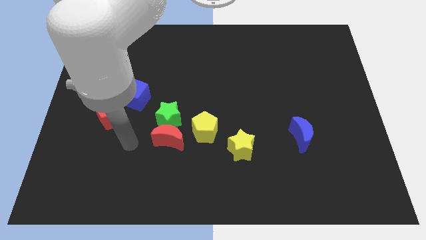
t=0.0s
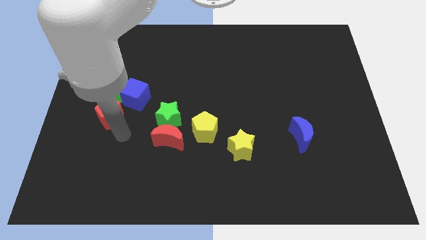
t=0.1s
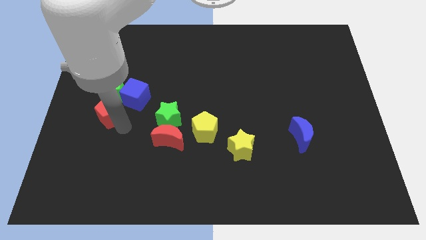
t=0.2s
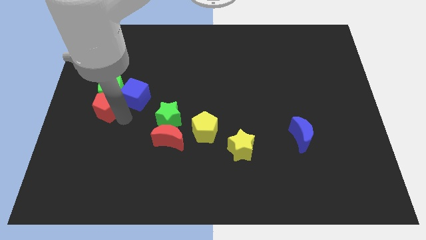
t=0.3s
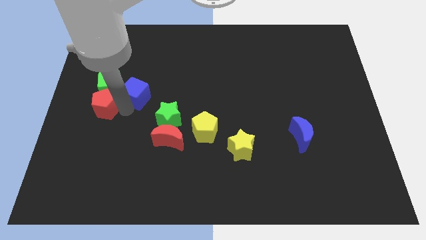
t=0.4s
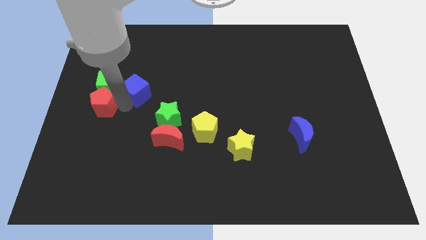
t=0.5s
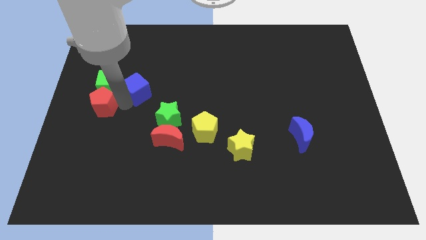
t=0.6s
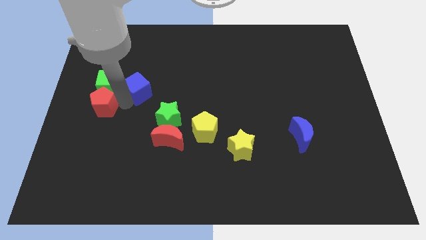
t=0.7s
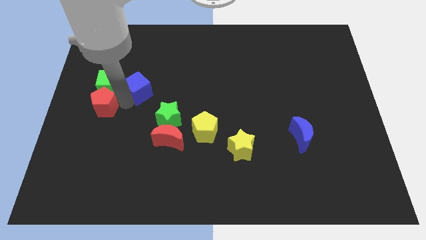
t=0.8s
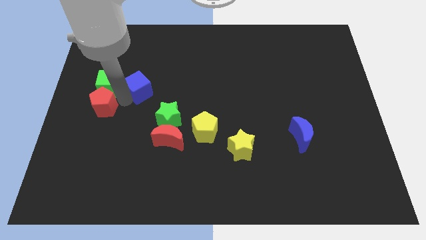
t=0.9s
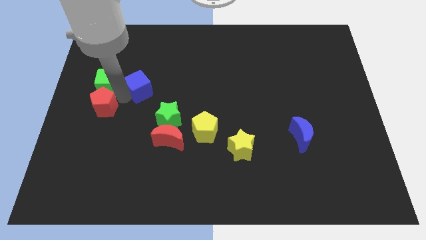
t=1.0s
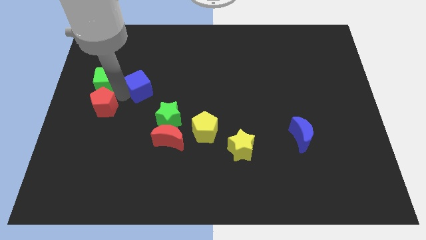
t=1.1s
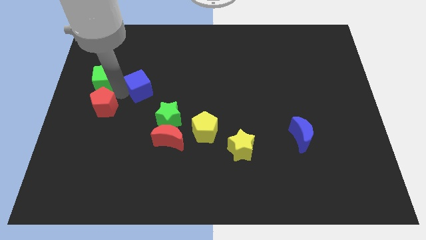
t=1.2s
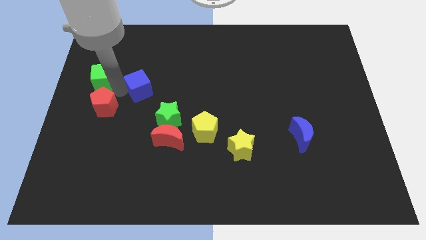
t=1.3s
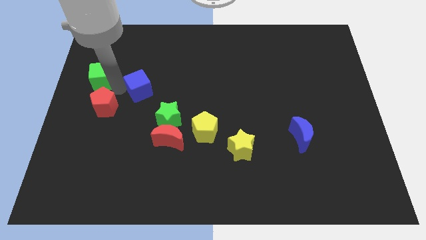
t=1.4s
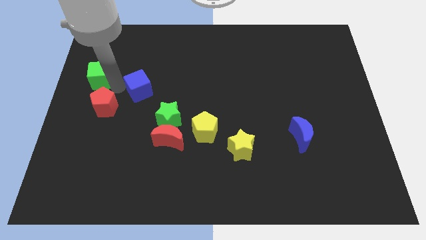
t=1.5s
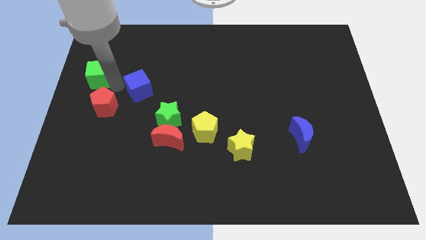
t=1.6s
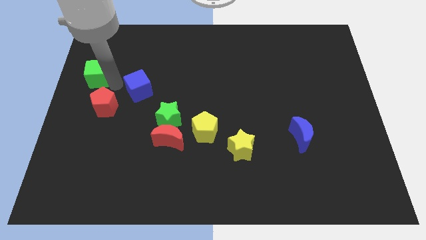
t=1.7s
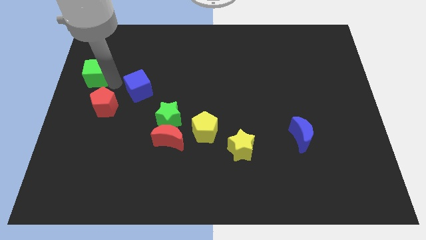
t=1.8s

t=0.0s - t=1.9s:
move the green cube away from the blue cube and red pentagon

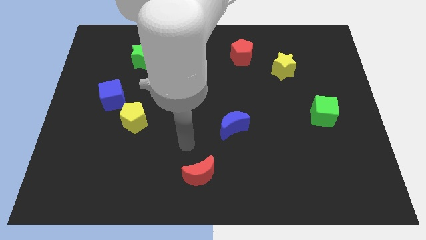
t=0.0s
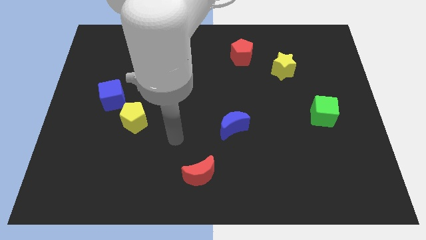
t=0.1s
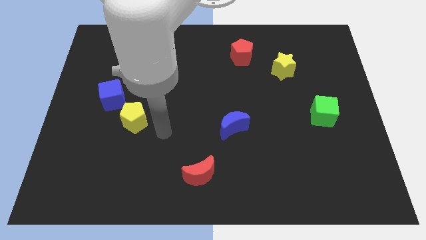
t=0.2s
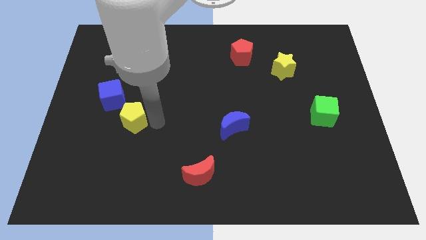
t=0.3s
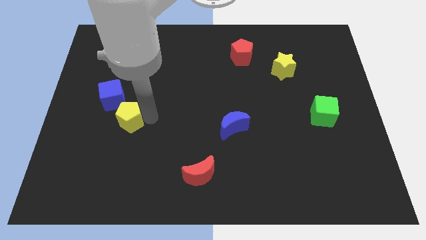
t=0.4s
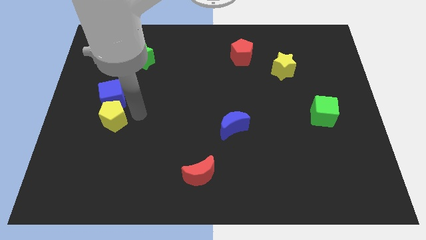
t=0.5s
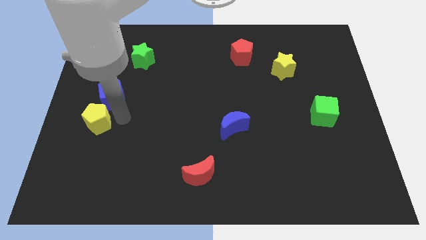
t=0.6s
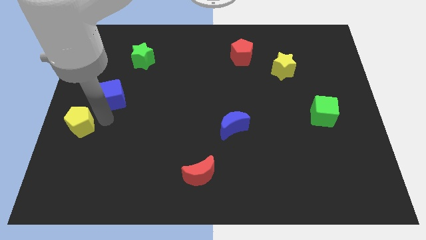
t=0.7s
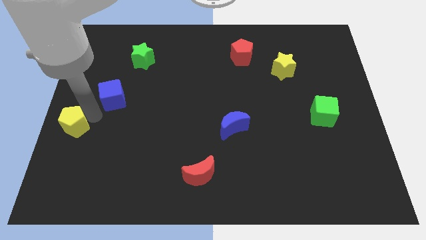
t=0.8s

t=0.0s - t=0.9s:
move the blue cube away from the yellow pentagon

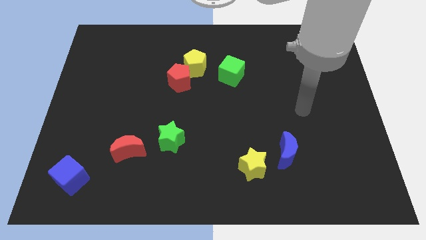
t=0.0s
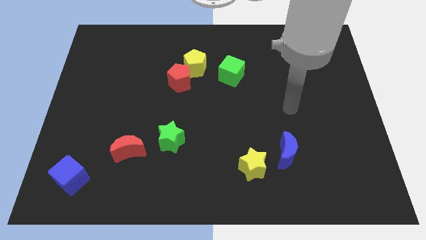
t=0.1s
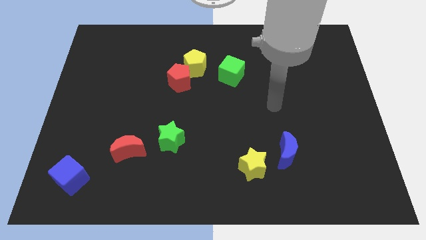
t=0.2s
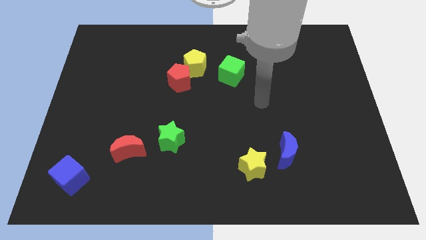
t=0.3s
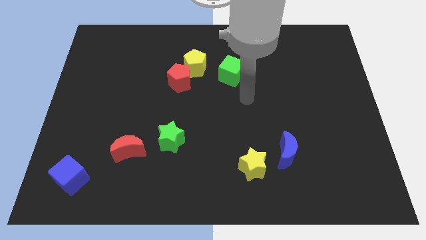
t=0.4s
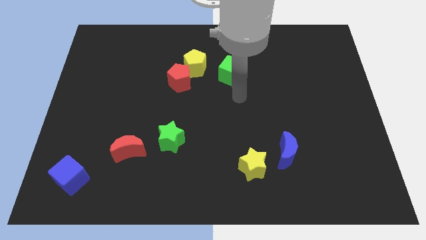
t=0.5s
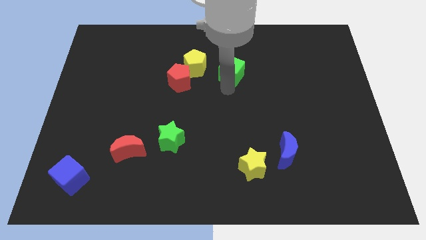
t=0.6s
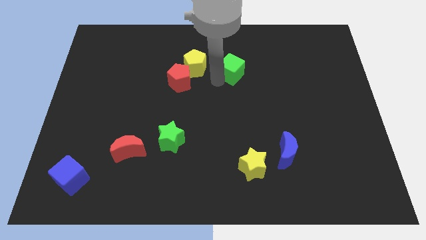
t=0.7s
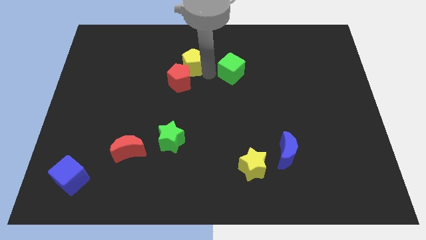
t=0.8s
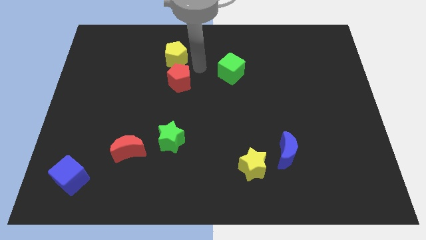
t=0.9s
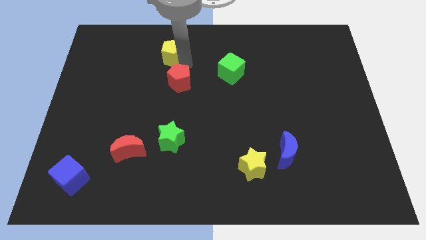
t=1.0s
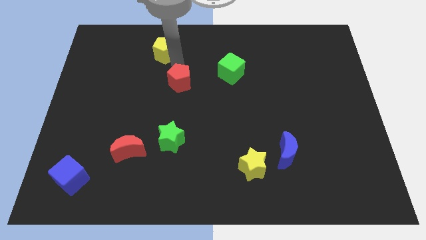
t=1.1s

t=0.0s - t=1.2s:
move the red pentagon away from the yellow pentagon

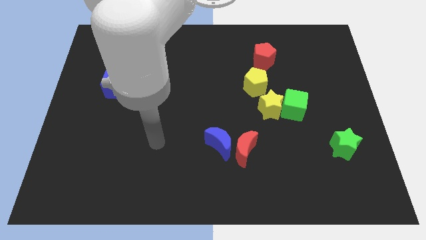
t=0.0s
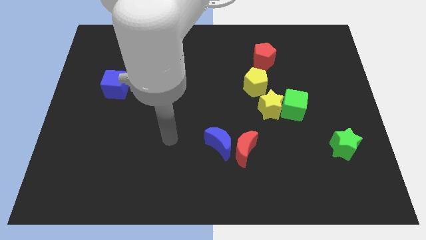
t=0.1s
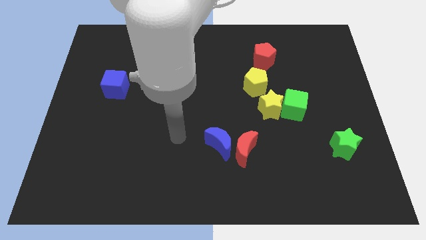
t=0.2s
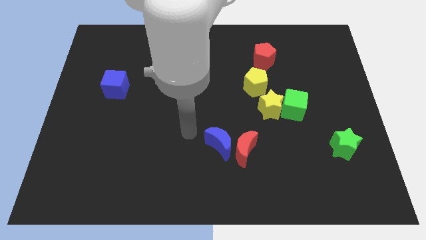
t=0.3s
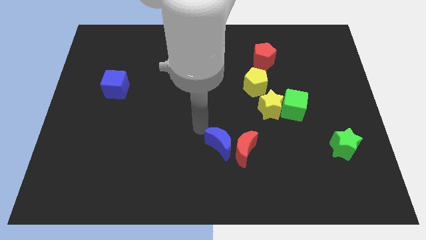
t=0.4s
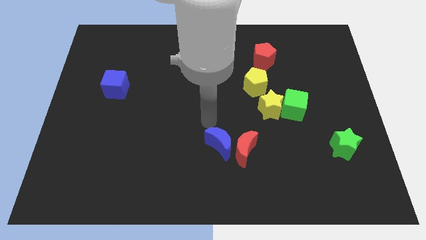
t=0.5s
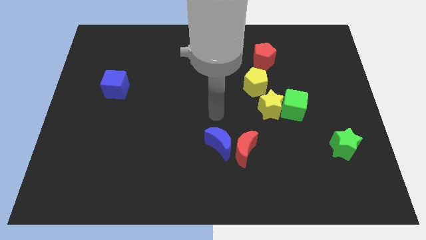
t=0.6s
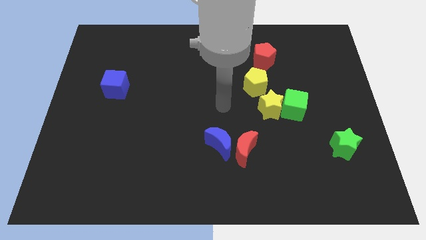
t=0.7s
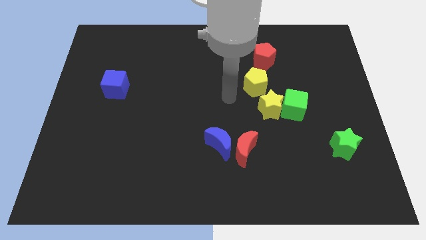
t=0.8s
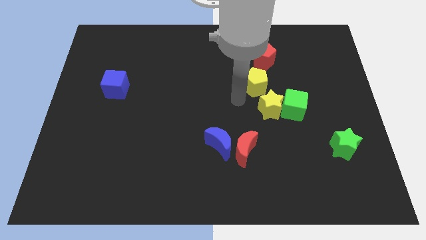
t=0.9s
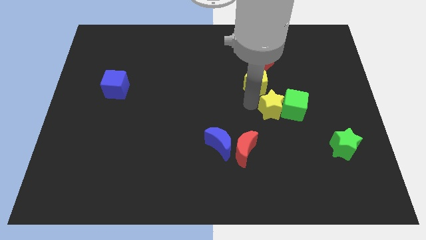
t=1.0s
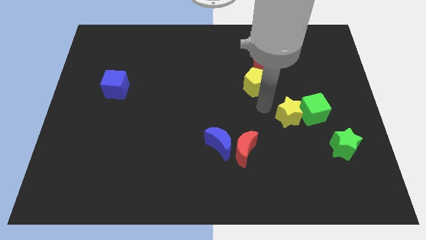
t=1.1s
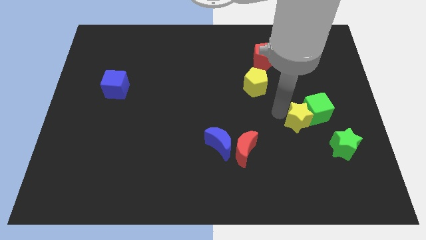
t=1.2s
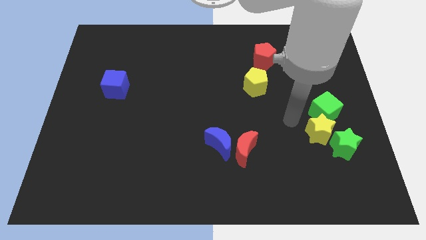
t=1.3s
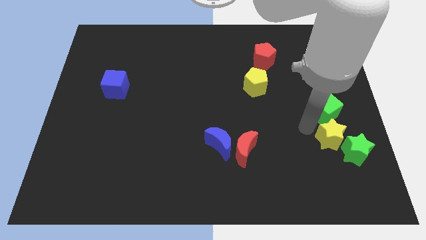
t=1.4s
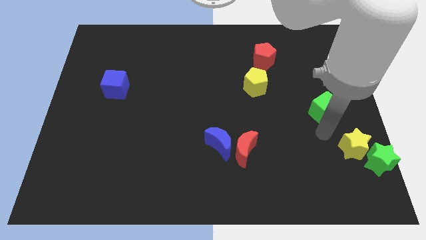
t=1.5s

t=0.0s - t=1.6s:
pull the green cube apart from the yellow star

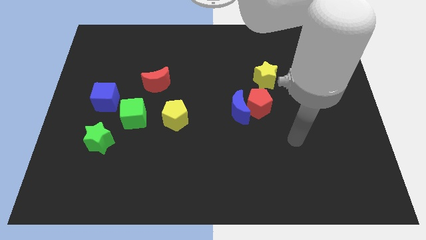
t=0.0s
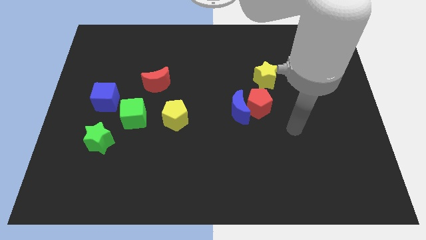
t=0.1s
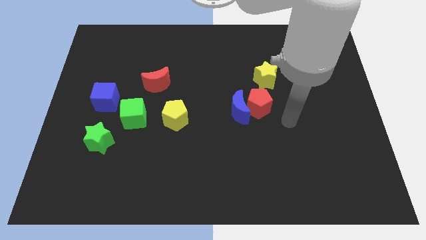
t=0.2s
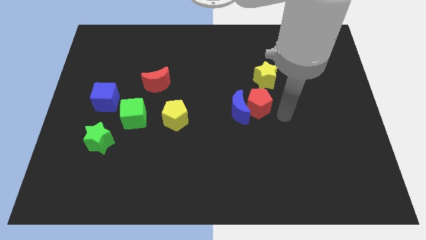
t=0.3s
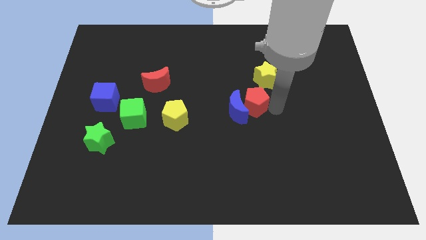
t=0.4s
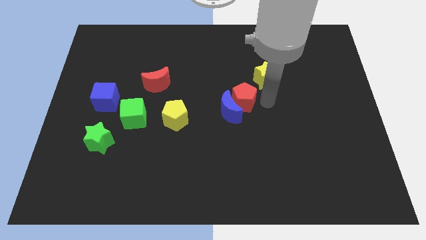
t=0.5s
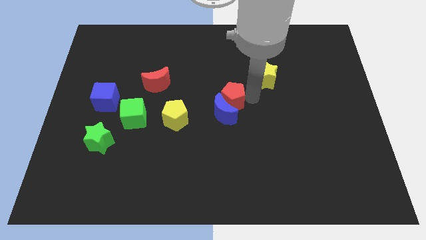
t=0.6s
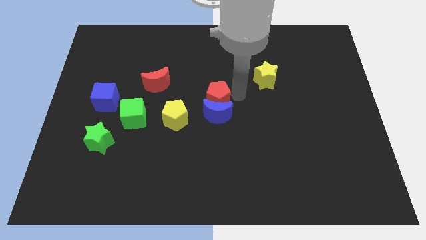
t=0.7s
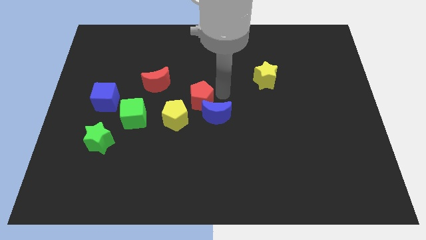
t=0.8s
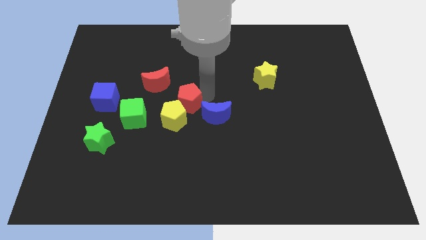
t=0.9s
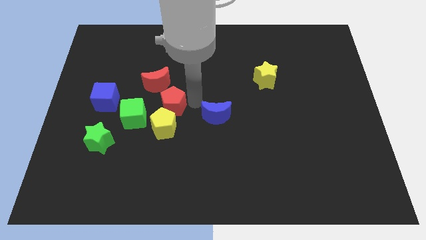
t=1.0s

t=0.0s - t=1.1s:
move the blue moon away from the red pentagon

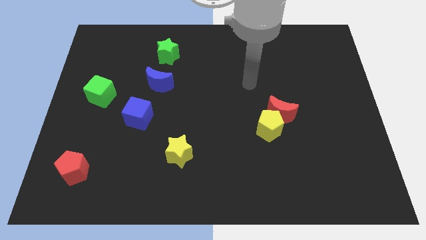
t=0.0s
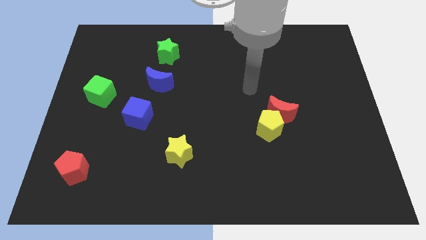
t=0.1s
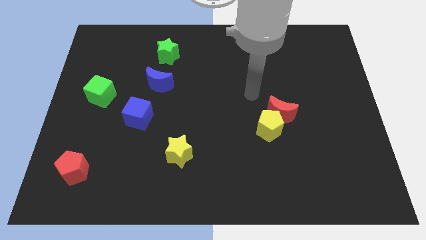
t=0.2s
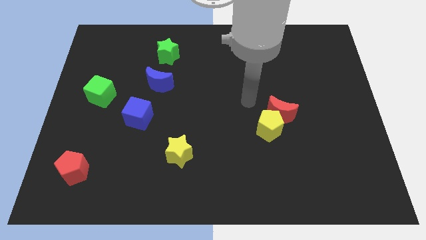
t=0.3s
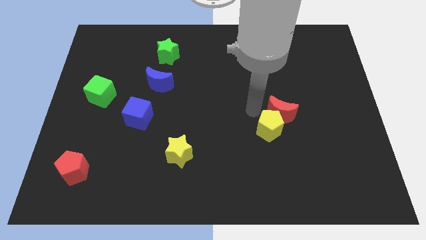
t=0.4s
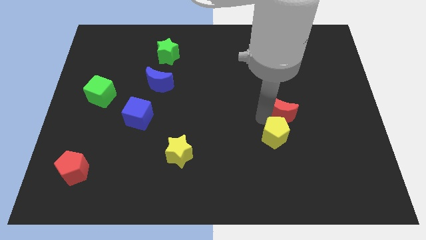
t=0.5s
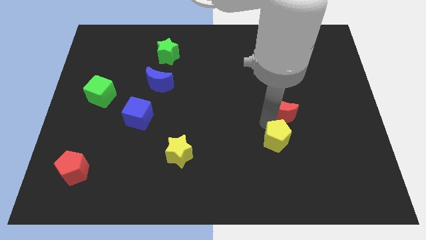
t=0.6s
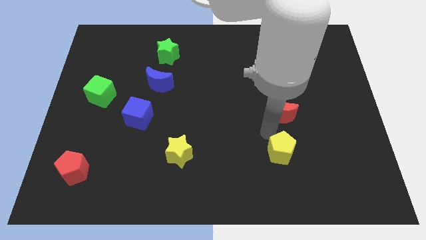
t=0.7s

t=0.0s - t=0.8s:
pull the red moon apart from the yellow pentagon

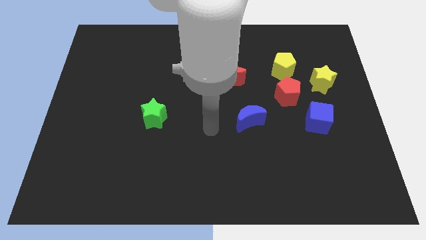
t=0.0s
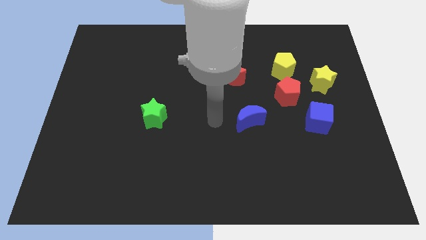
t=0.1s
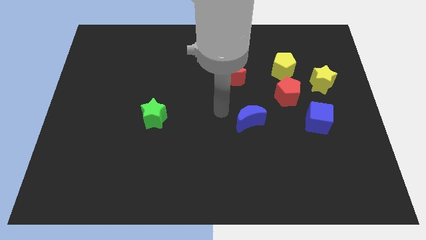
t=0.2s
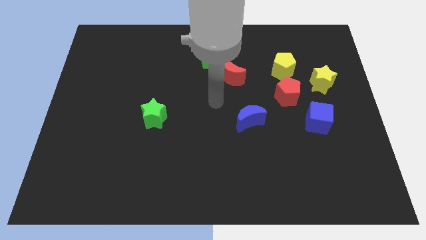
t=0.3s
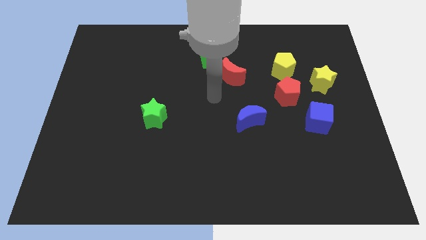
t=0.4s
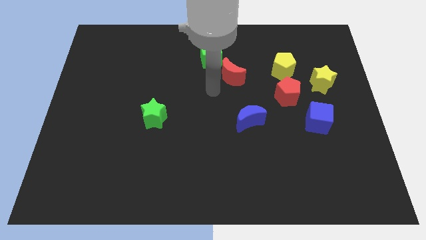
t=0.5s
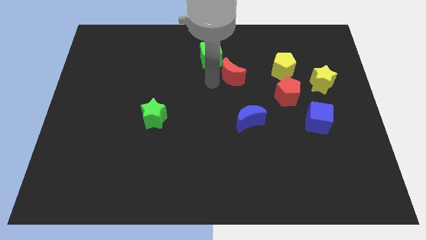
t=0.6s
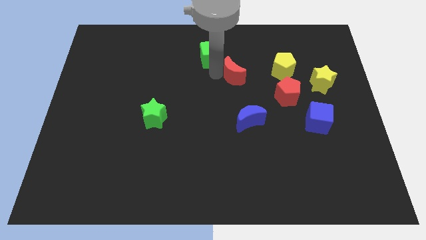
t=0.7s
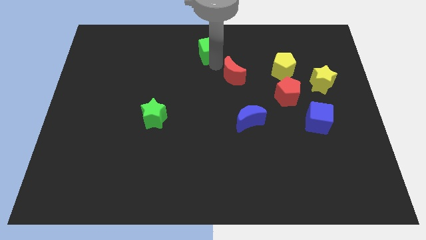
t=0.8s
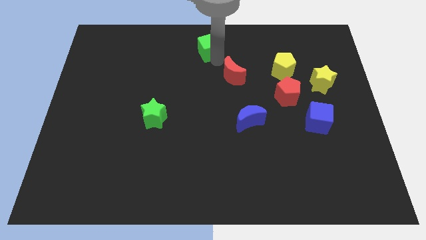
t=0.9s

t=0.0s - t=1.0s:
move the red moon away from the green cube

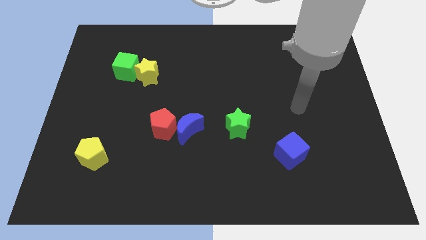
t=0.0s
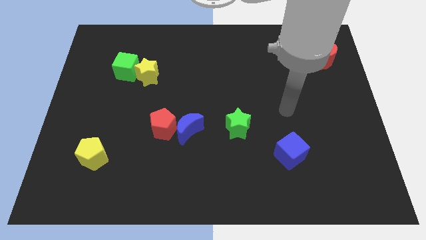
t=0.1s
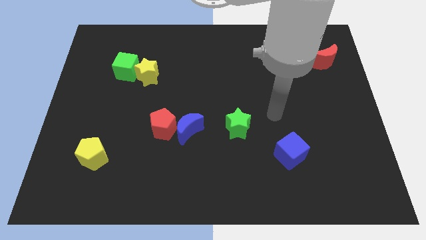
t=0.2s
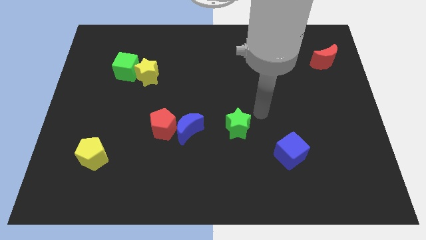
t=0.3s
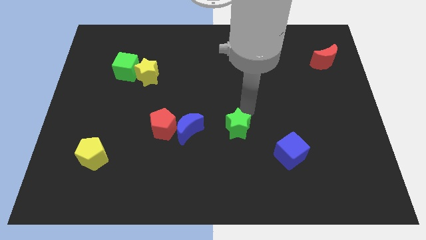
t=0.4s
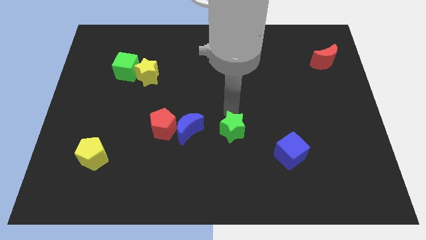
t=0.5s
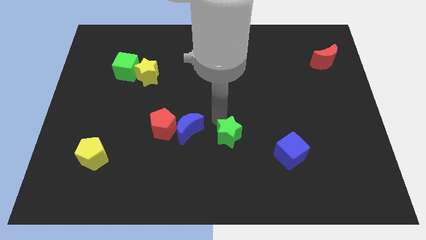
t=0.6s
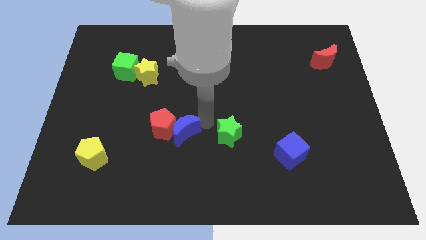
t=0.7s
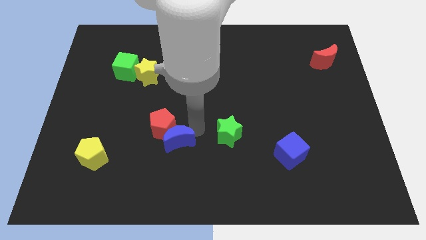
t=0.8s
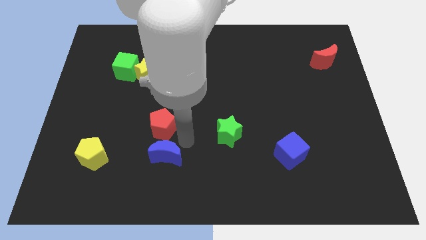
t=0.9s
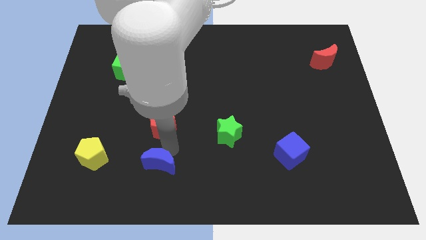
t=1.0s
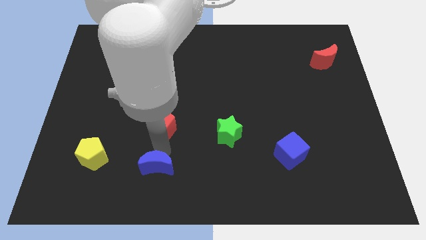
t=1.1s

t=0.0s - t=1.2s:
pull the red pentagon apart from the blue moon
